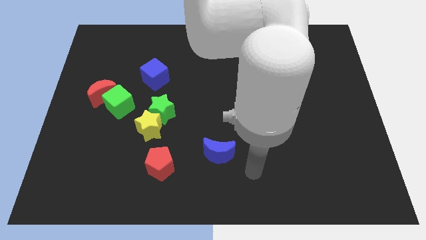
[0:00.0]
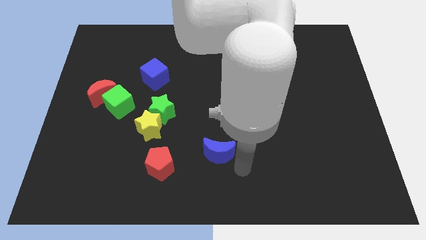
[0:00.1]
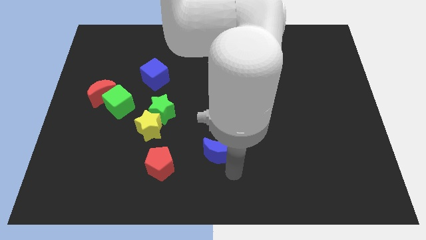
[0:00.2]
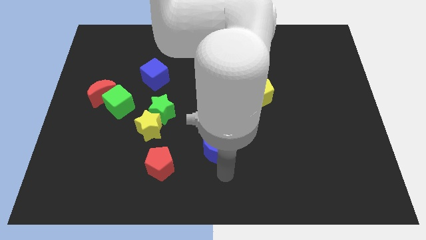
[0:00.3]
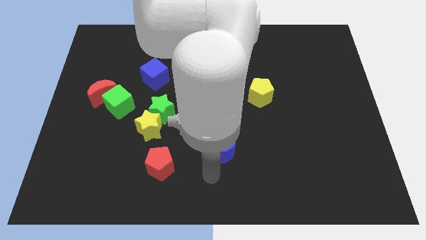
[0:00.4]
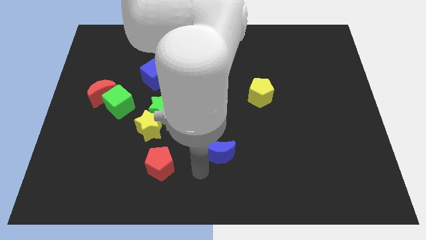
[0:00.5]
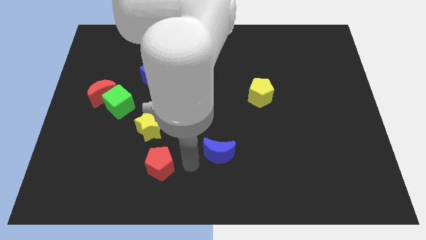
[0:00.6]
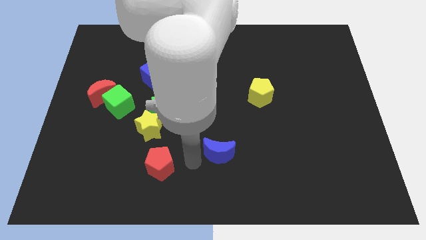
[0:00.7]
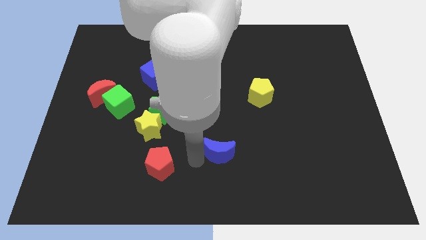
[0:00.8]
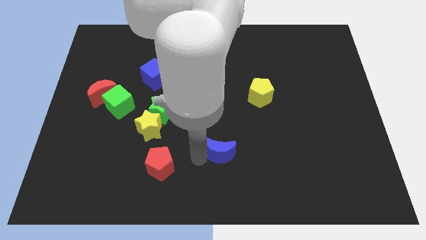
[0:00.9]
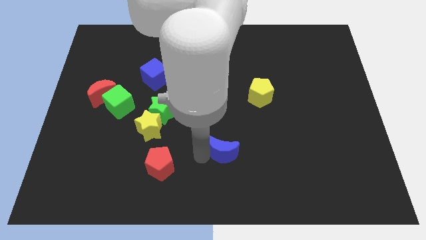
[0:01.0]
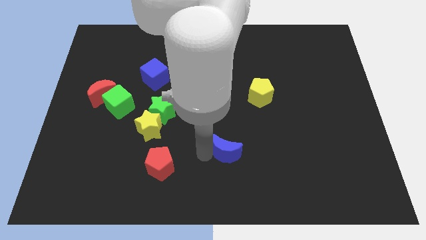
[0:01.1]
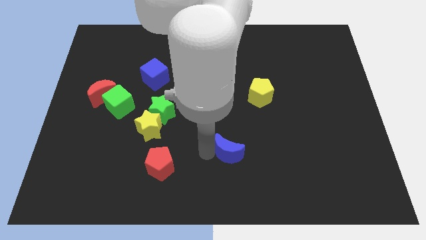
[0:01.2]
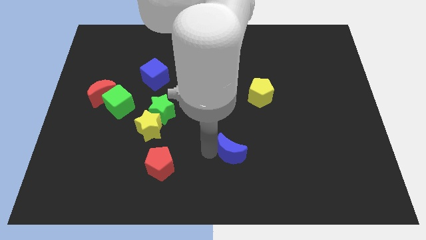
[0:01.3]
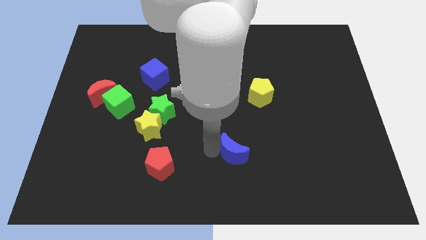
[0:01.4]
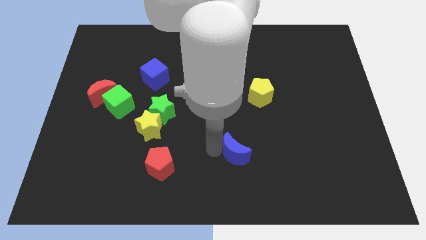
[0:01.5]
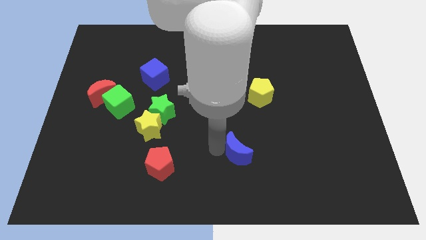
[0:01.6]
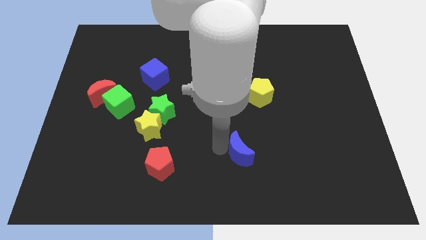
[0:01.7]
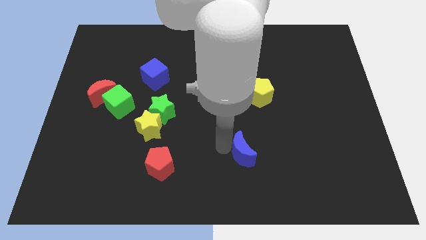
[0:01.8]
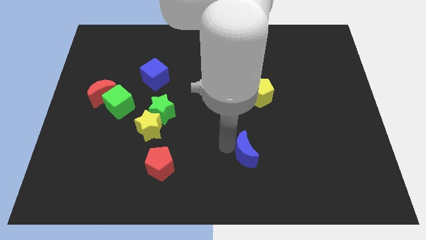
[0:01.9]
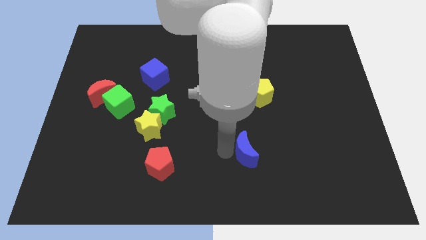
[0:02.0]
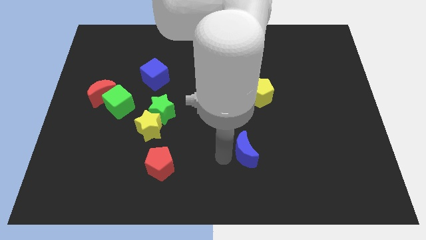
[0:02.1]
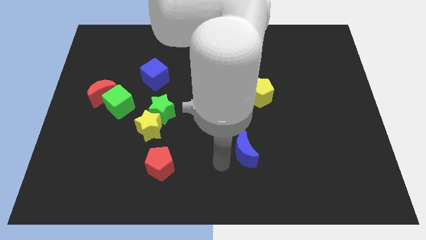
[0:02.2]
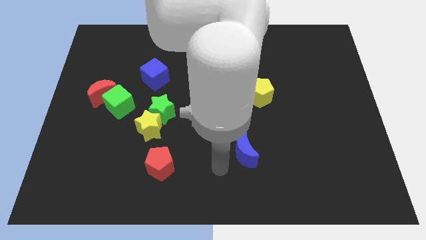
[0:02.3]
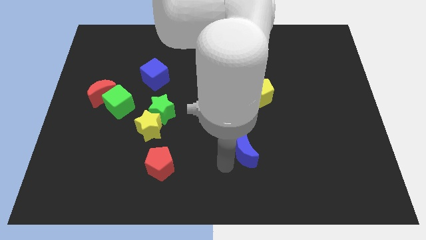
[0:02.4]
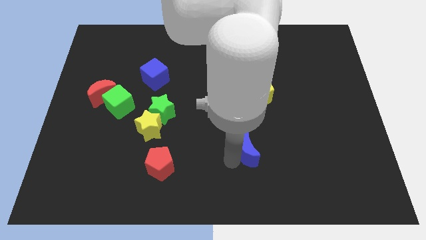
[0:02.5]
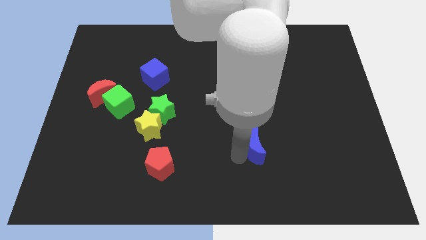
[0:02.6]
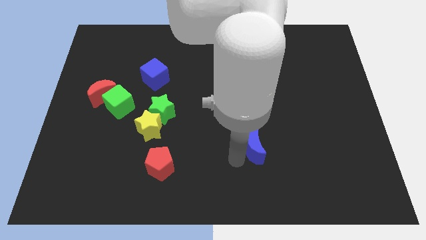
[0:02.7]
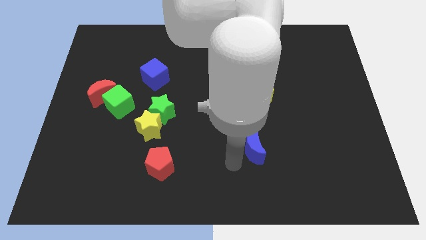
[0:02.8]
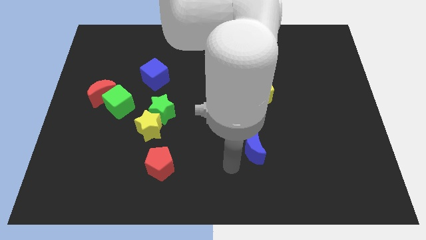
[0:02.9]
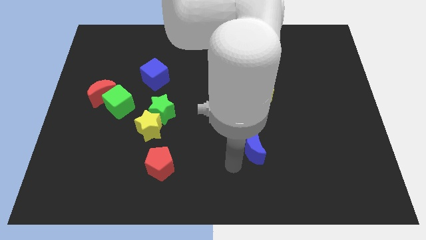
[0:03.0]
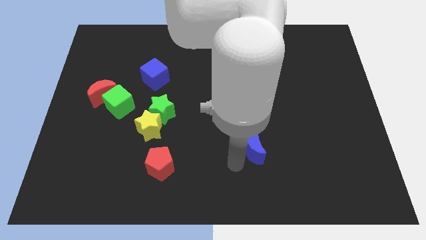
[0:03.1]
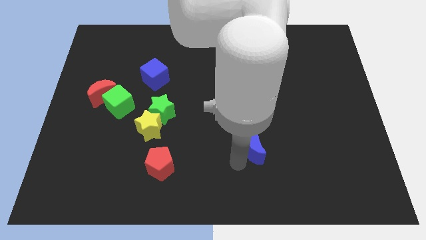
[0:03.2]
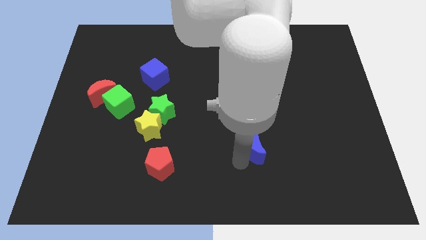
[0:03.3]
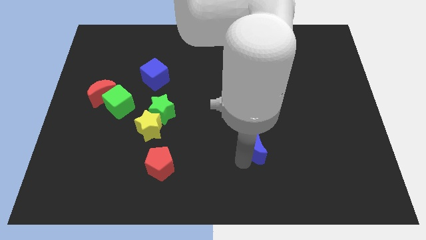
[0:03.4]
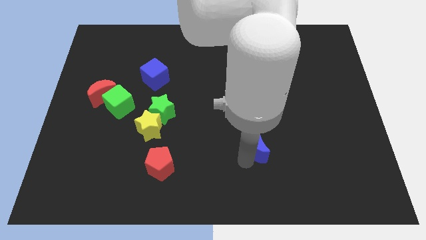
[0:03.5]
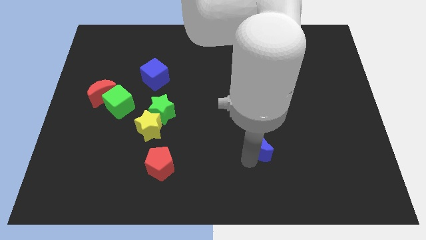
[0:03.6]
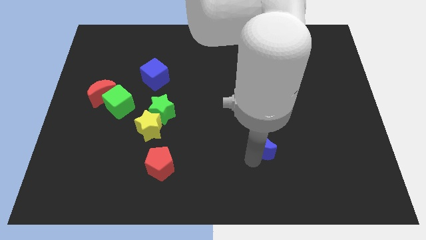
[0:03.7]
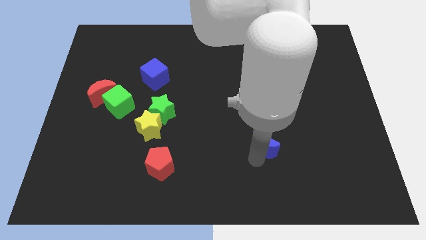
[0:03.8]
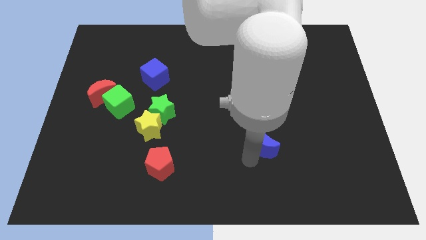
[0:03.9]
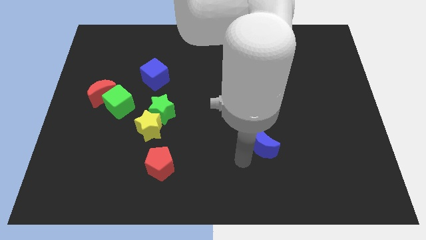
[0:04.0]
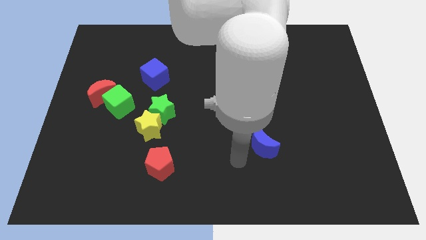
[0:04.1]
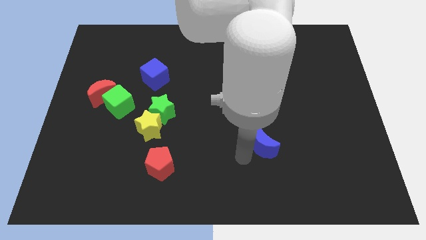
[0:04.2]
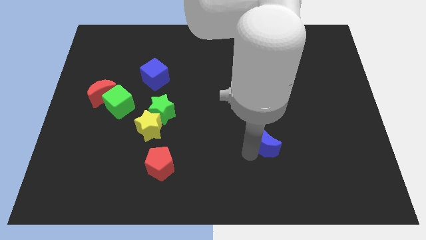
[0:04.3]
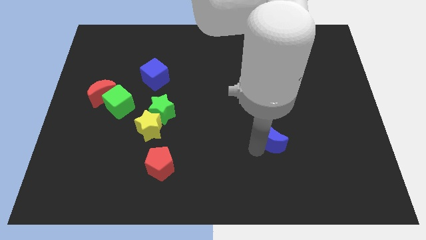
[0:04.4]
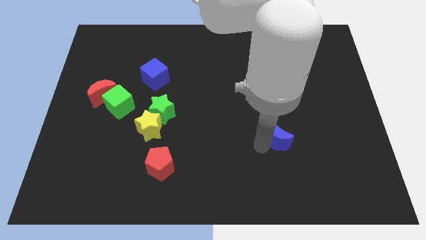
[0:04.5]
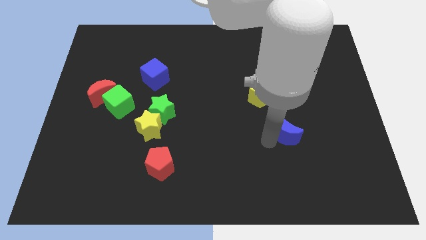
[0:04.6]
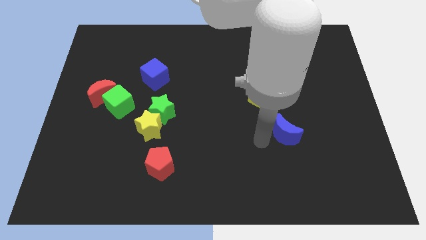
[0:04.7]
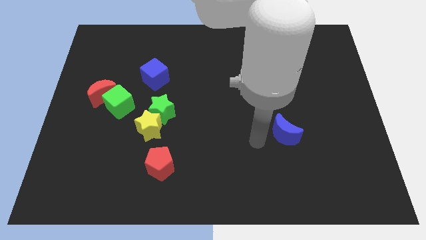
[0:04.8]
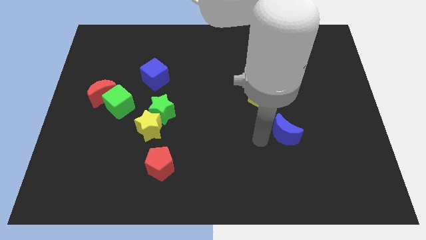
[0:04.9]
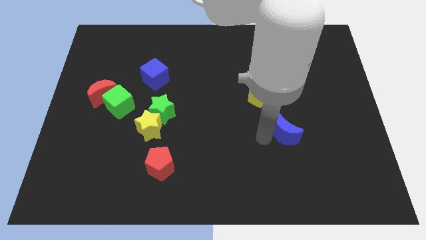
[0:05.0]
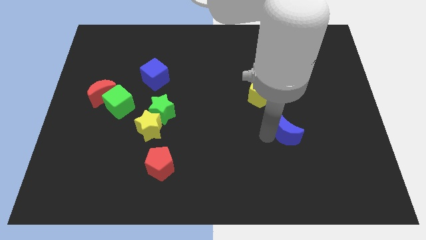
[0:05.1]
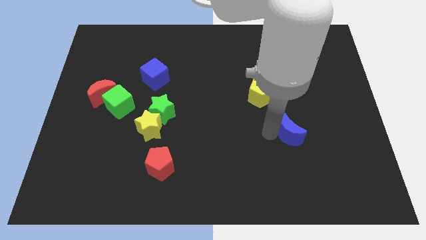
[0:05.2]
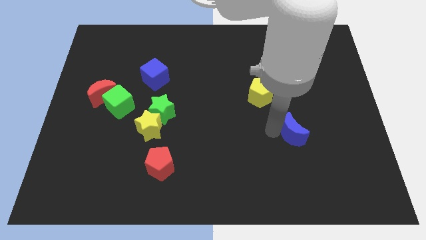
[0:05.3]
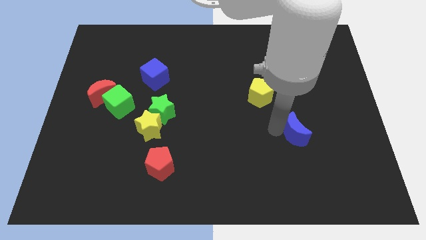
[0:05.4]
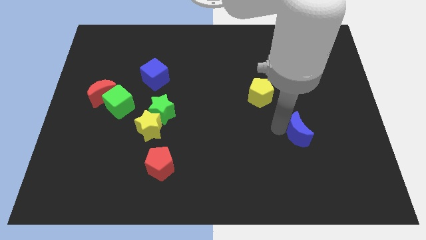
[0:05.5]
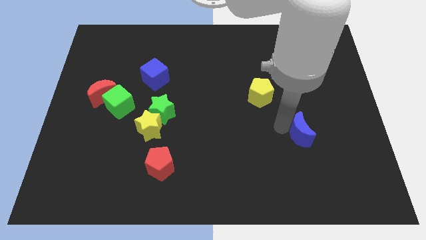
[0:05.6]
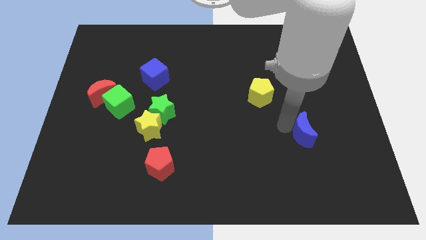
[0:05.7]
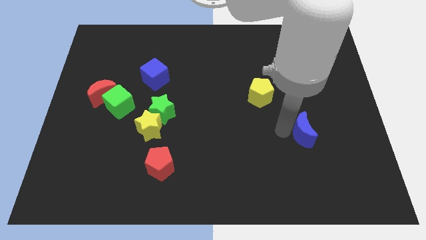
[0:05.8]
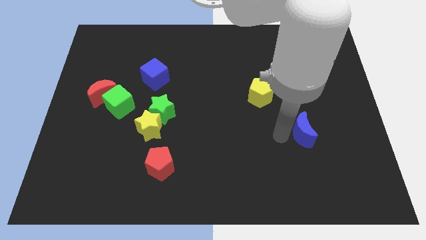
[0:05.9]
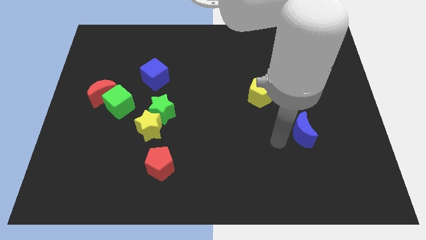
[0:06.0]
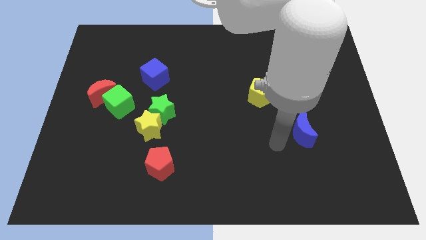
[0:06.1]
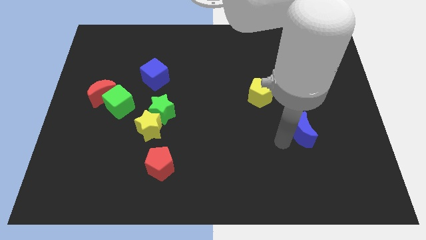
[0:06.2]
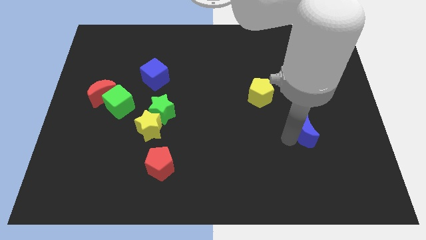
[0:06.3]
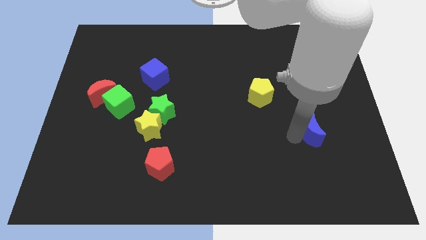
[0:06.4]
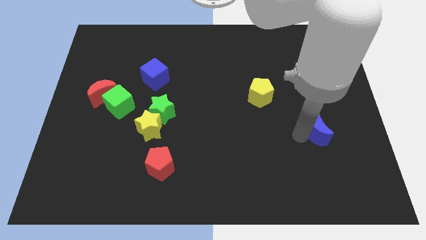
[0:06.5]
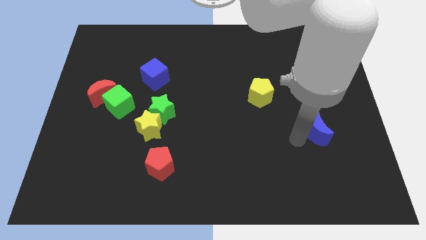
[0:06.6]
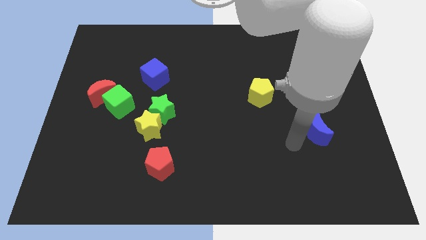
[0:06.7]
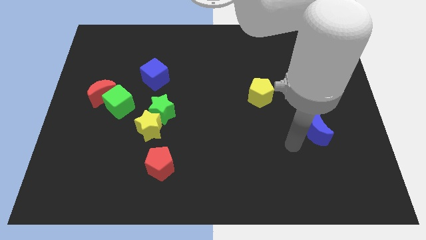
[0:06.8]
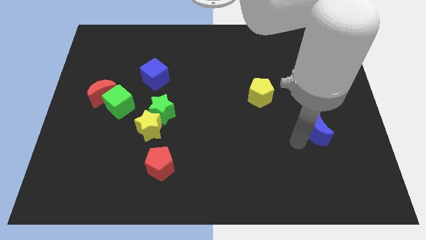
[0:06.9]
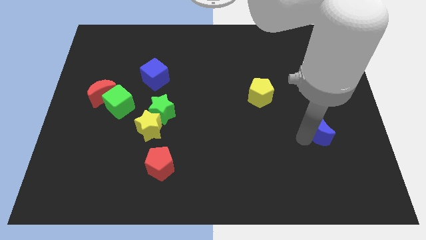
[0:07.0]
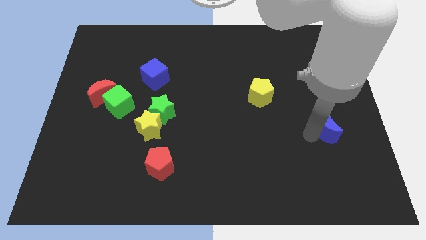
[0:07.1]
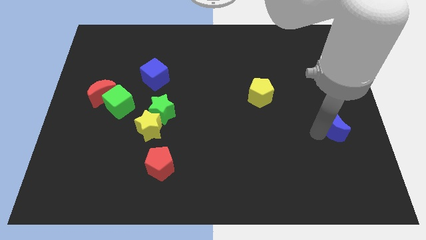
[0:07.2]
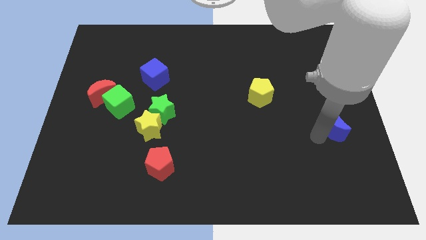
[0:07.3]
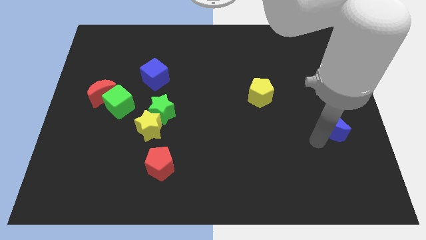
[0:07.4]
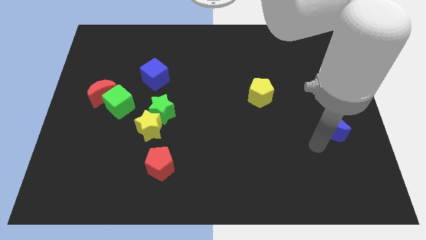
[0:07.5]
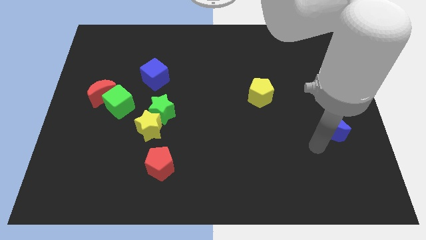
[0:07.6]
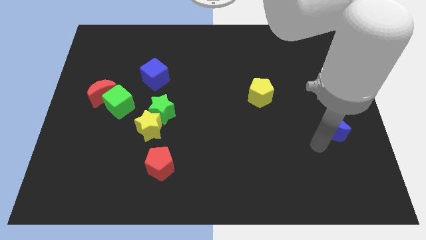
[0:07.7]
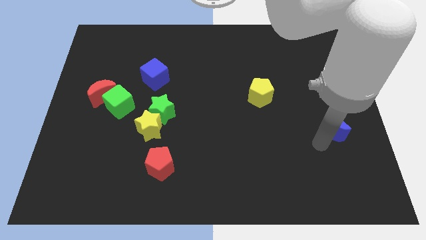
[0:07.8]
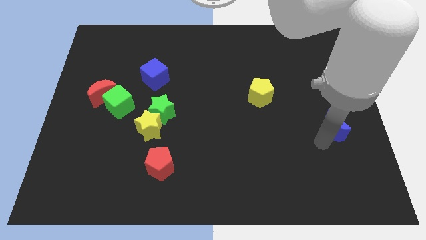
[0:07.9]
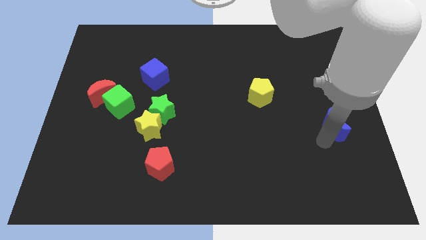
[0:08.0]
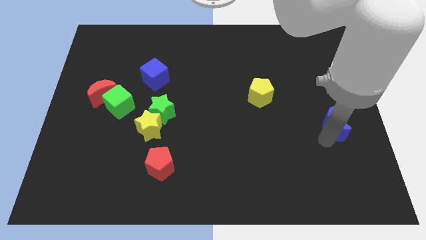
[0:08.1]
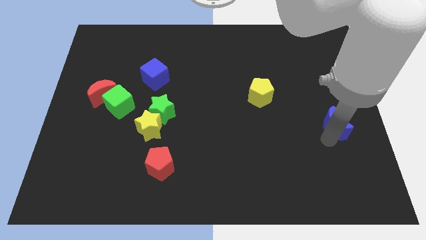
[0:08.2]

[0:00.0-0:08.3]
slide the blue moon to the right side of the board
